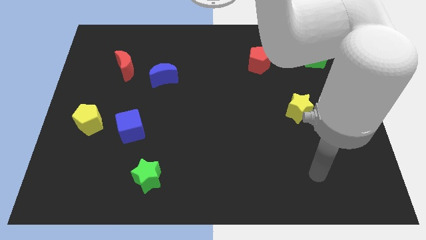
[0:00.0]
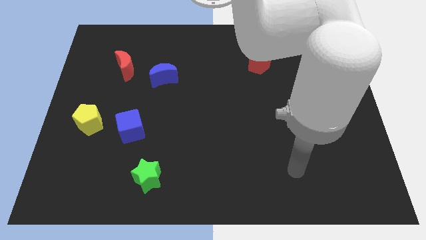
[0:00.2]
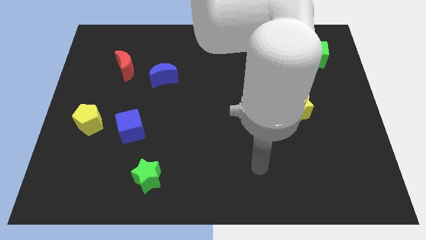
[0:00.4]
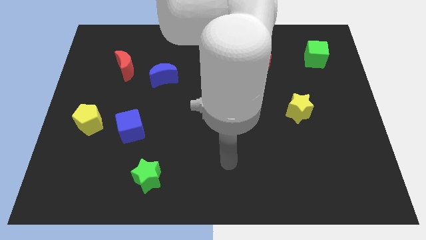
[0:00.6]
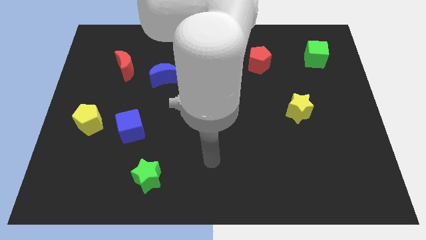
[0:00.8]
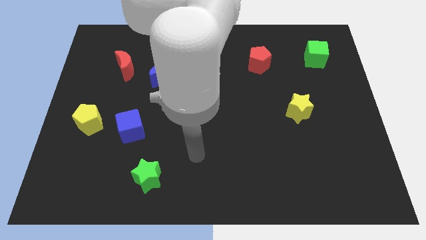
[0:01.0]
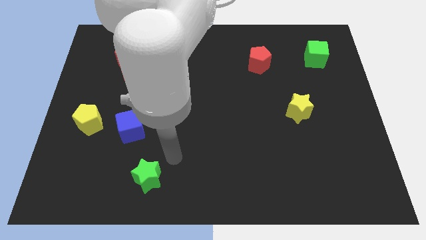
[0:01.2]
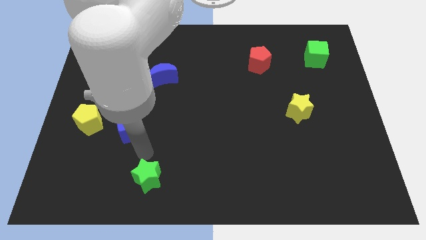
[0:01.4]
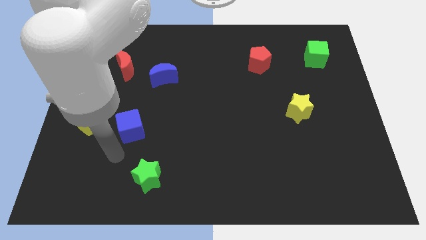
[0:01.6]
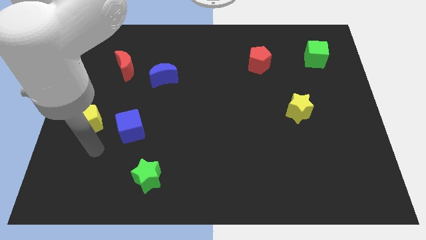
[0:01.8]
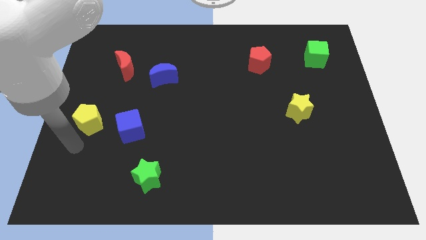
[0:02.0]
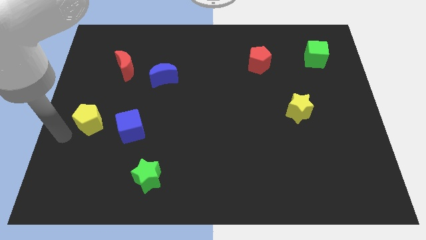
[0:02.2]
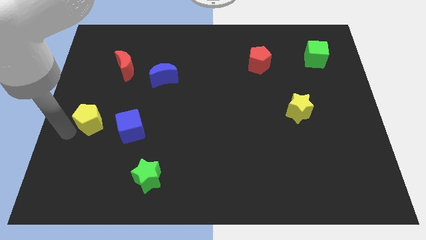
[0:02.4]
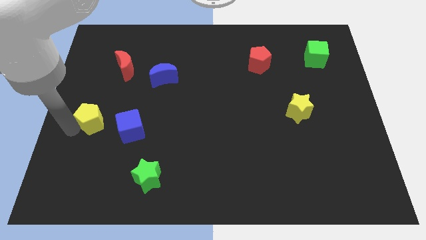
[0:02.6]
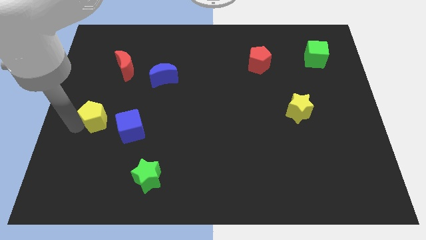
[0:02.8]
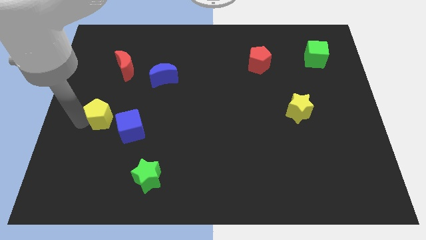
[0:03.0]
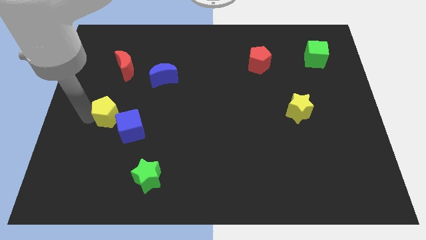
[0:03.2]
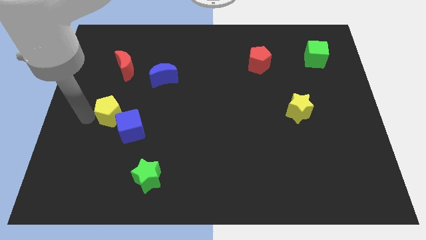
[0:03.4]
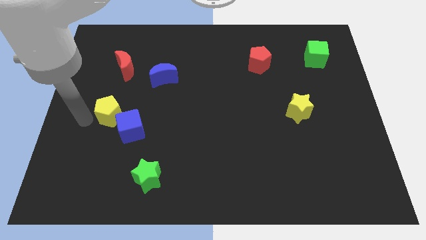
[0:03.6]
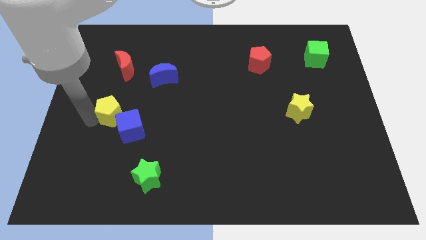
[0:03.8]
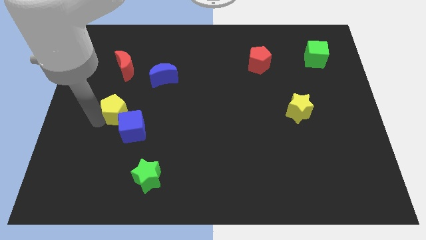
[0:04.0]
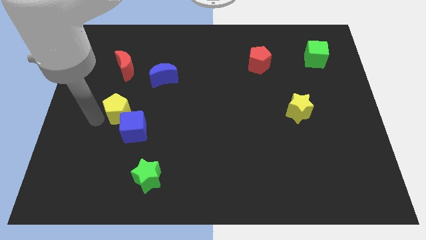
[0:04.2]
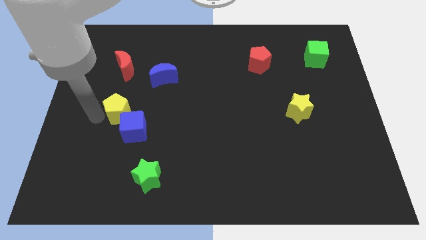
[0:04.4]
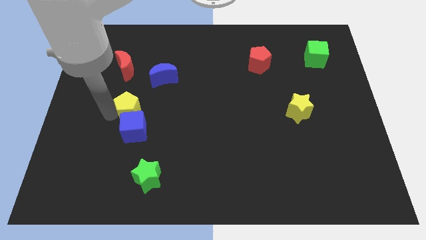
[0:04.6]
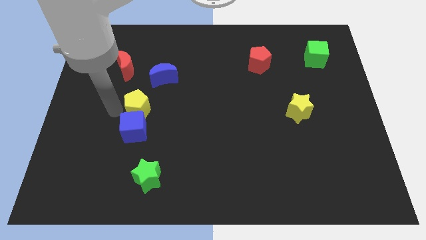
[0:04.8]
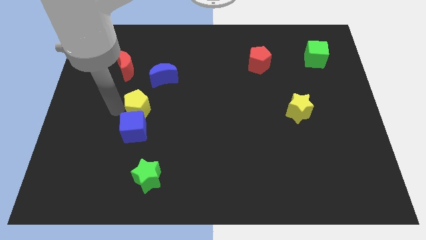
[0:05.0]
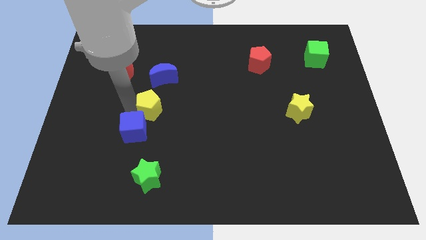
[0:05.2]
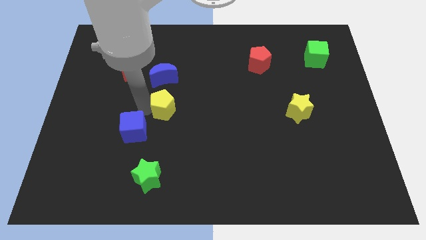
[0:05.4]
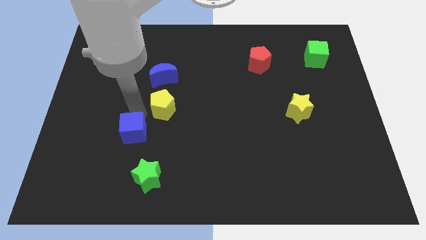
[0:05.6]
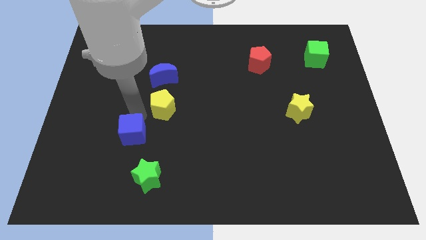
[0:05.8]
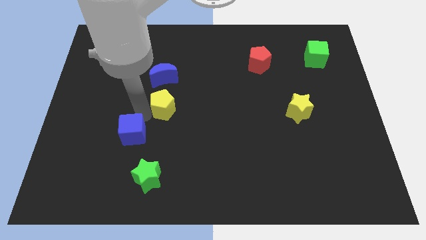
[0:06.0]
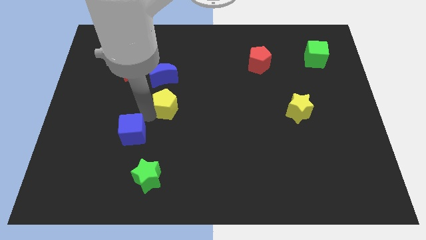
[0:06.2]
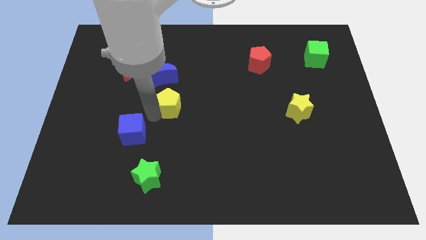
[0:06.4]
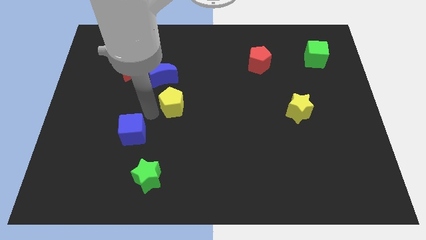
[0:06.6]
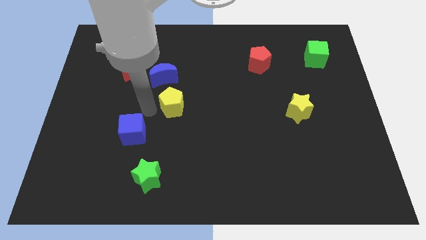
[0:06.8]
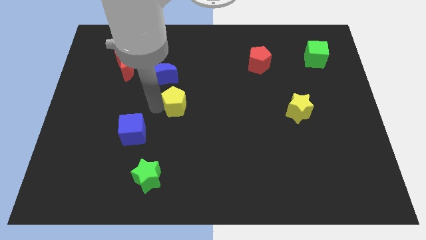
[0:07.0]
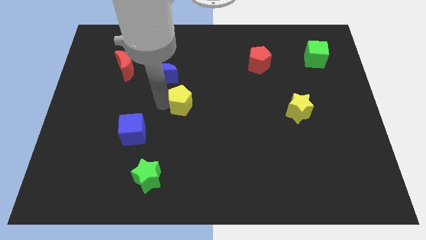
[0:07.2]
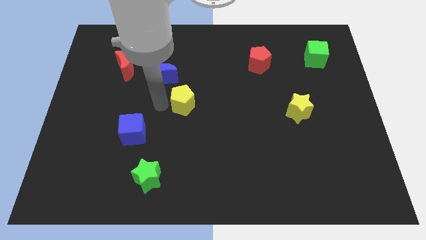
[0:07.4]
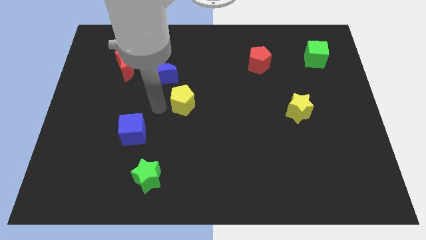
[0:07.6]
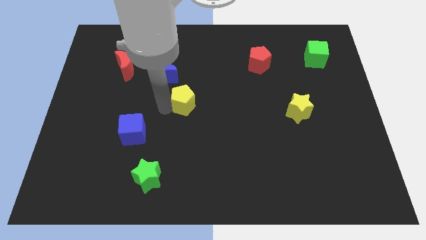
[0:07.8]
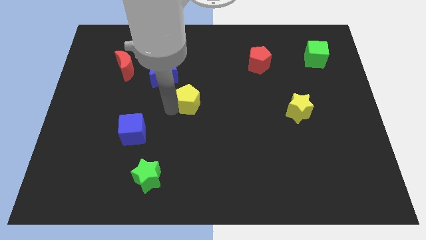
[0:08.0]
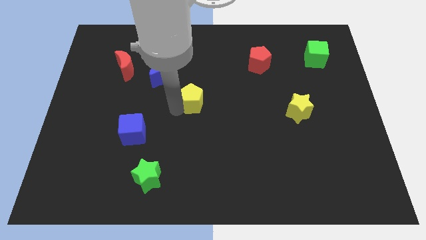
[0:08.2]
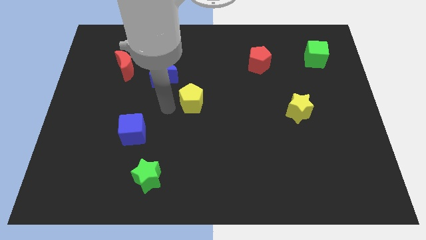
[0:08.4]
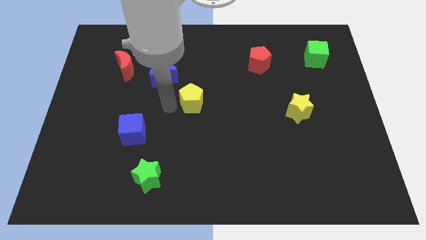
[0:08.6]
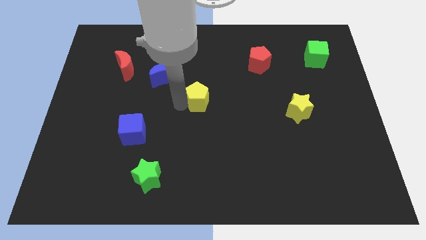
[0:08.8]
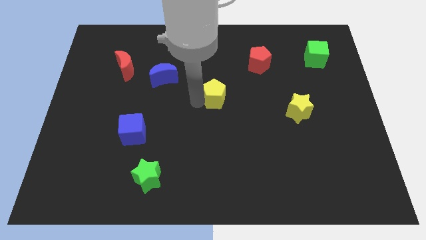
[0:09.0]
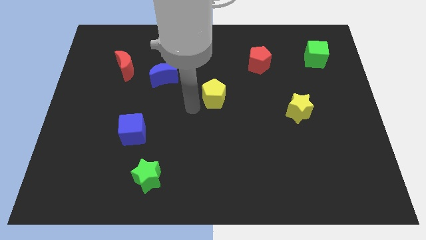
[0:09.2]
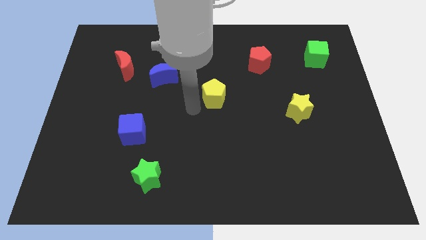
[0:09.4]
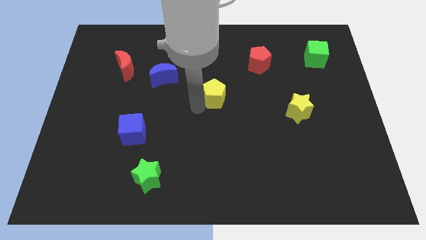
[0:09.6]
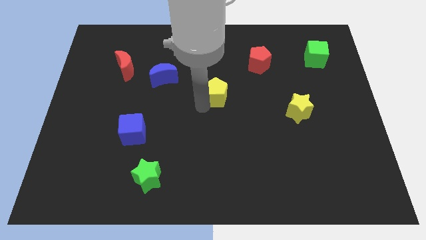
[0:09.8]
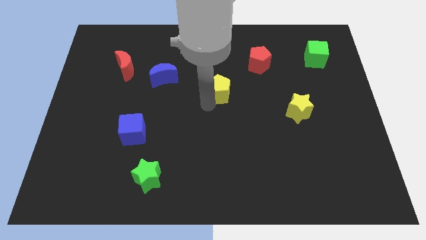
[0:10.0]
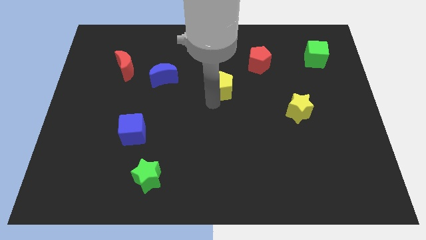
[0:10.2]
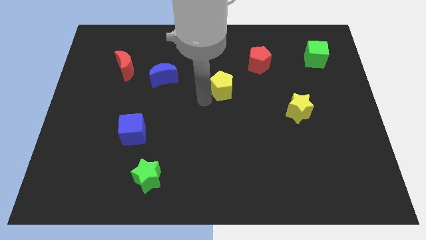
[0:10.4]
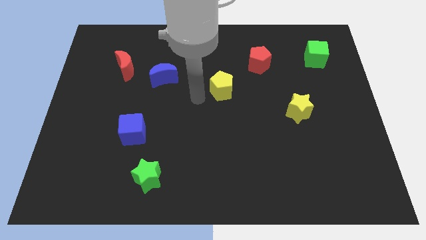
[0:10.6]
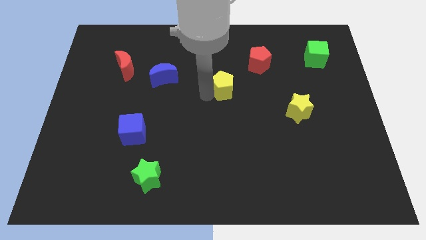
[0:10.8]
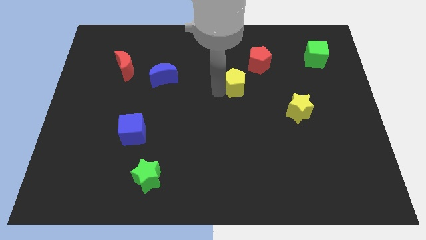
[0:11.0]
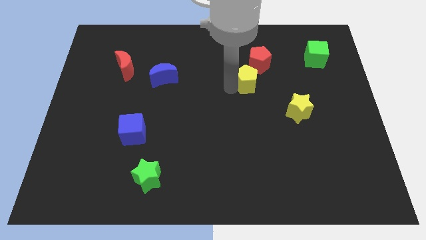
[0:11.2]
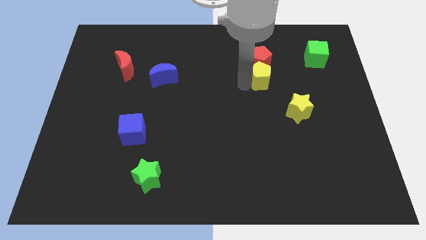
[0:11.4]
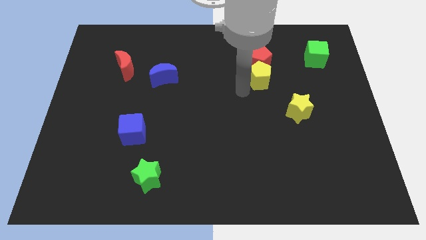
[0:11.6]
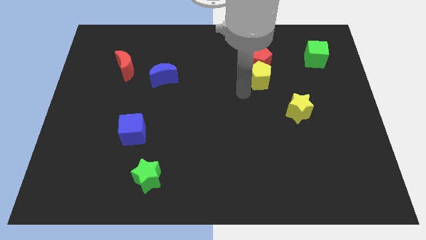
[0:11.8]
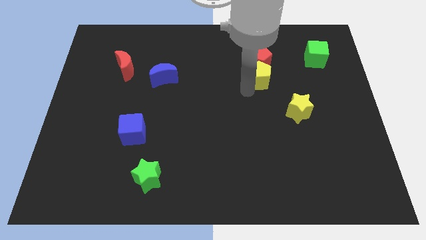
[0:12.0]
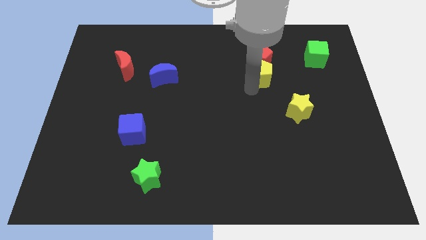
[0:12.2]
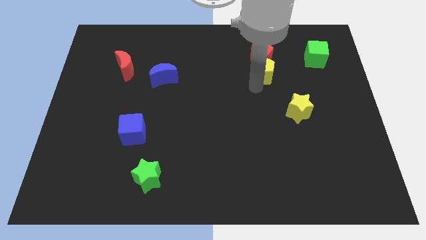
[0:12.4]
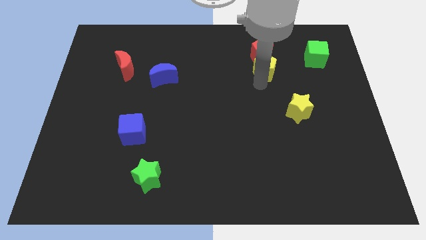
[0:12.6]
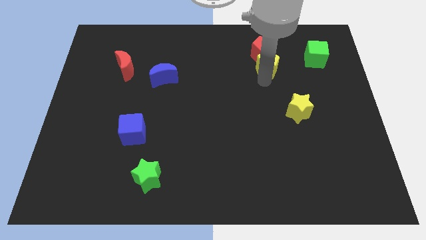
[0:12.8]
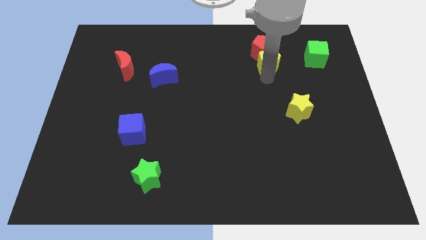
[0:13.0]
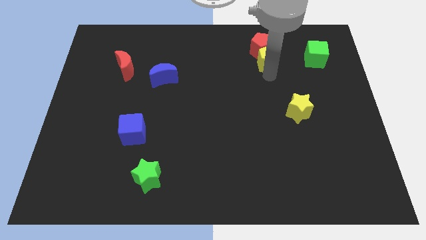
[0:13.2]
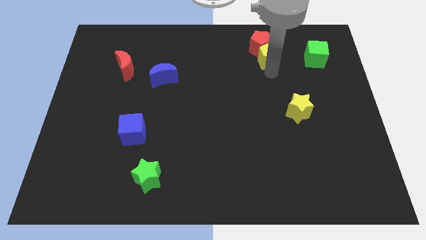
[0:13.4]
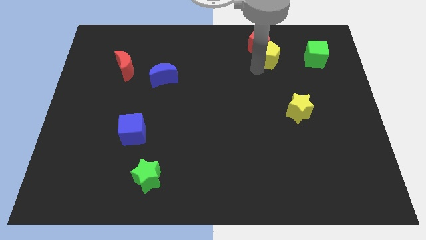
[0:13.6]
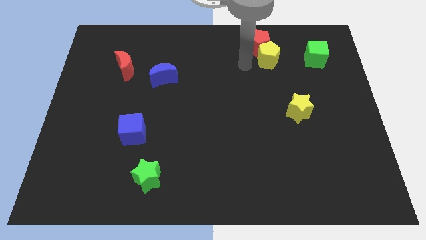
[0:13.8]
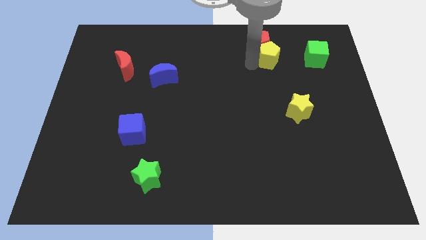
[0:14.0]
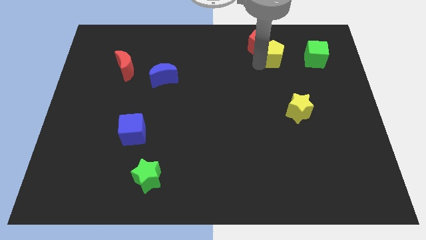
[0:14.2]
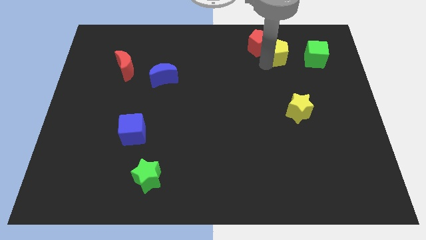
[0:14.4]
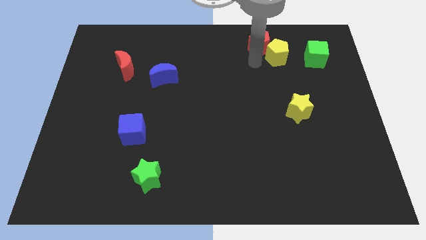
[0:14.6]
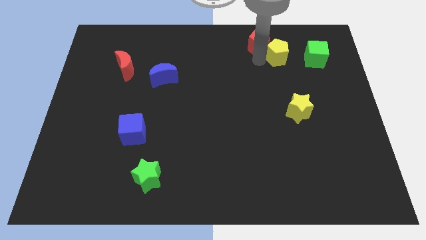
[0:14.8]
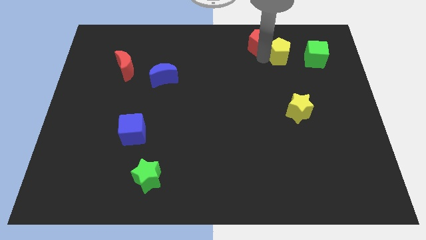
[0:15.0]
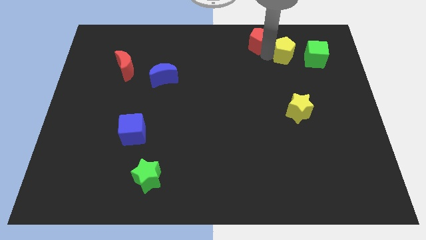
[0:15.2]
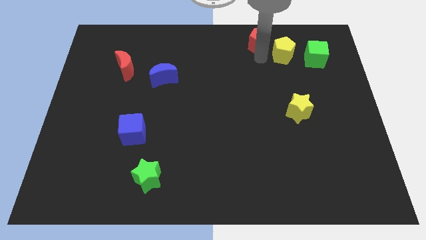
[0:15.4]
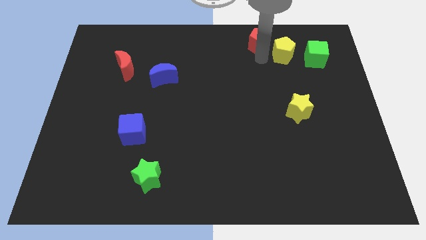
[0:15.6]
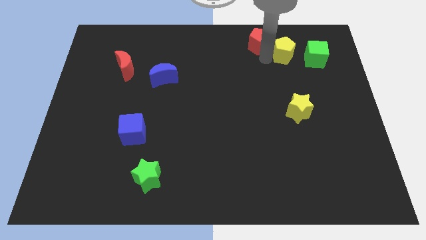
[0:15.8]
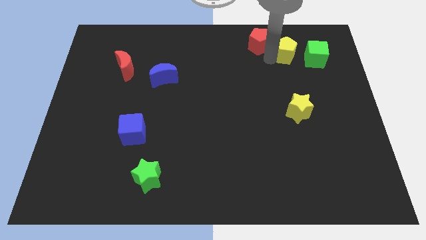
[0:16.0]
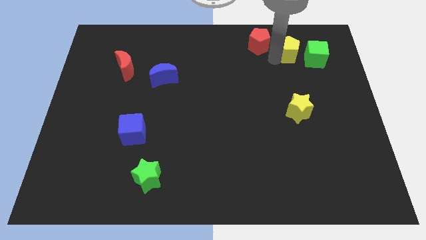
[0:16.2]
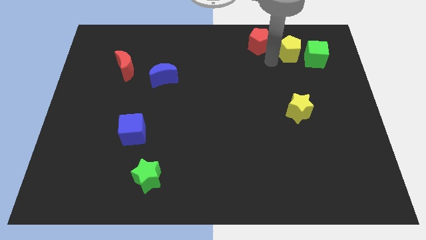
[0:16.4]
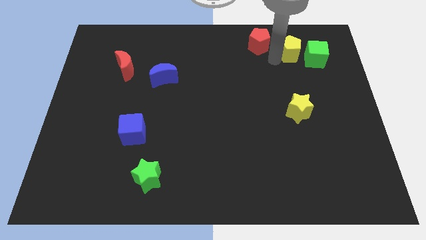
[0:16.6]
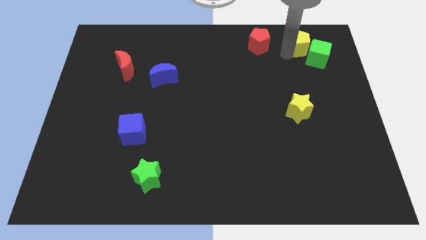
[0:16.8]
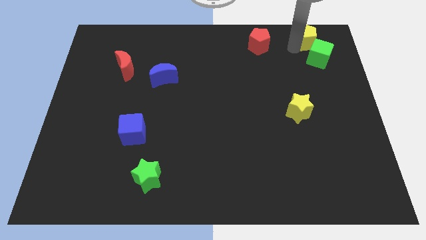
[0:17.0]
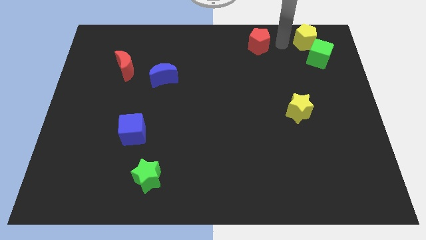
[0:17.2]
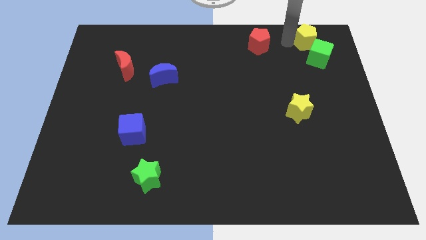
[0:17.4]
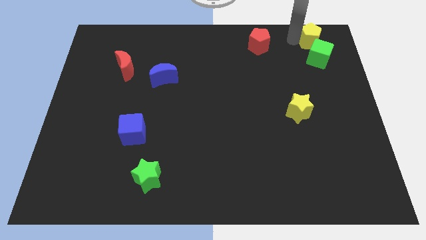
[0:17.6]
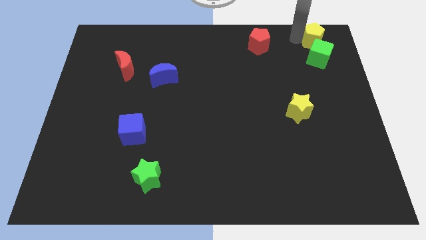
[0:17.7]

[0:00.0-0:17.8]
put the yellow pentagon to the top right of the board
